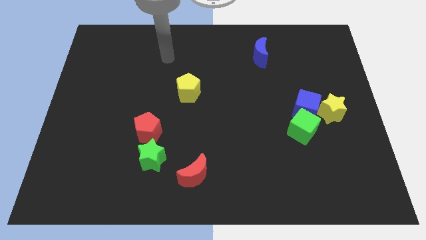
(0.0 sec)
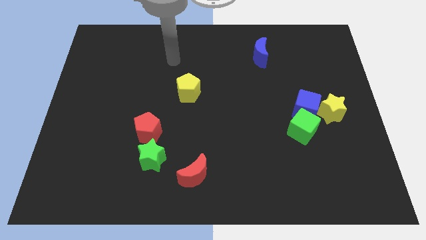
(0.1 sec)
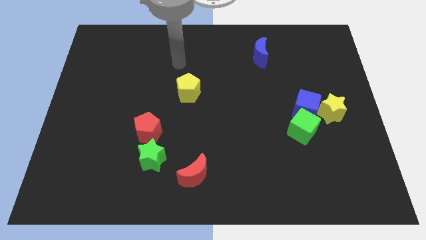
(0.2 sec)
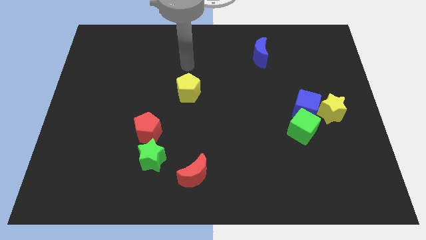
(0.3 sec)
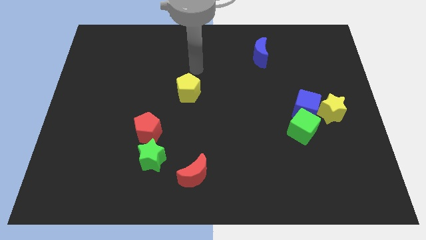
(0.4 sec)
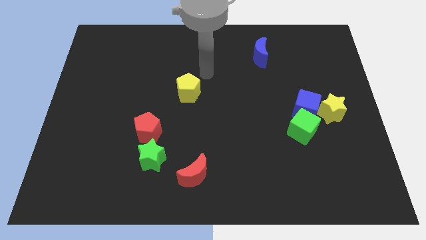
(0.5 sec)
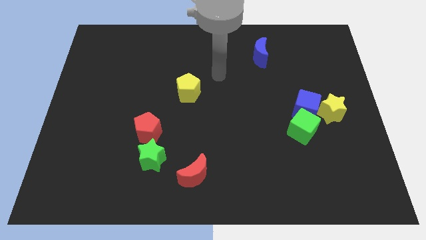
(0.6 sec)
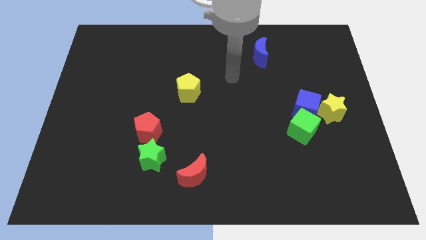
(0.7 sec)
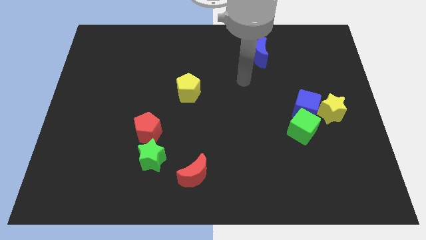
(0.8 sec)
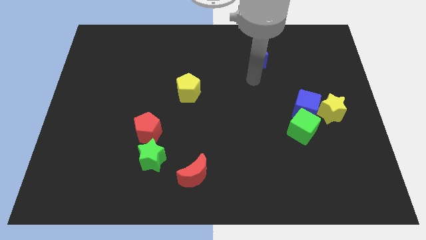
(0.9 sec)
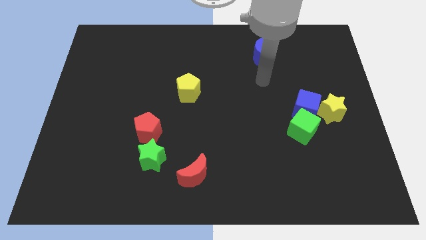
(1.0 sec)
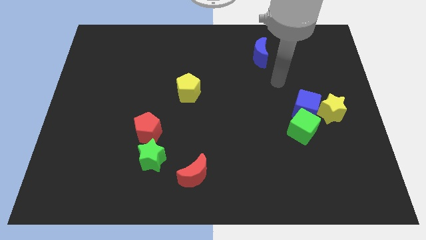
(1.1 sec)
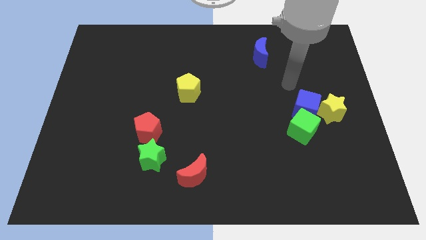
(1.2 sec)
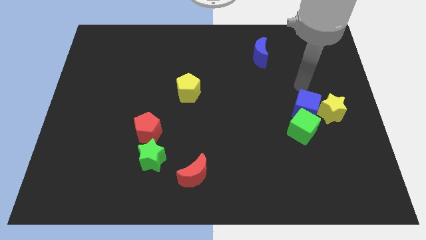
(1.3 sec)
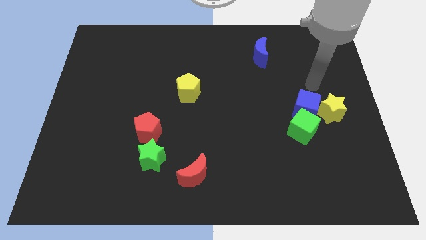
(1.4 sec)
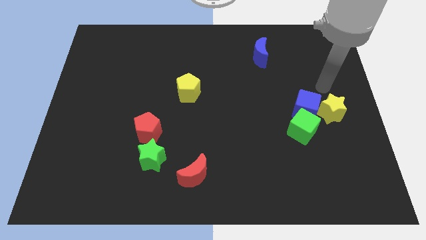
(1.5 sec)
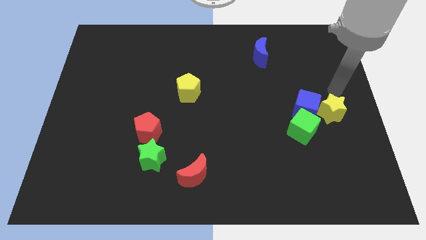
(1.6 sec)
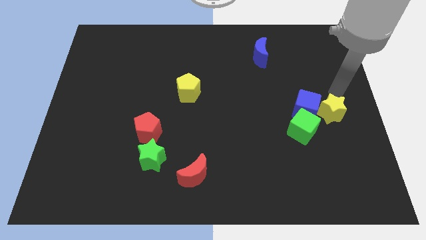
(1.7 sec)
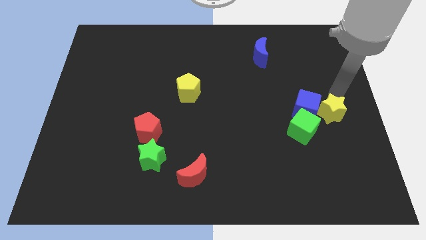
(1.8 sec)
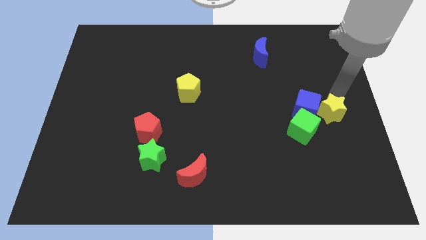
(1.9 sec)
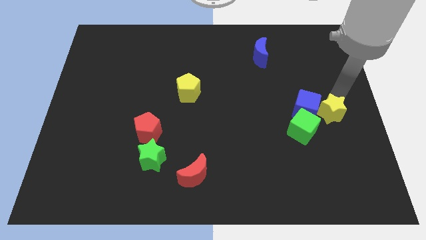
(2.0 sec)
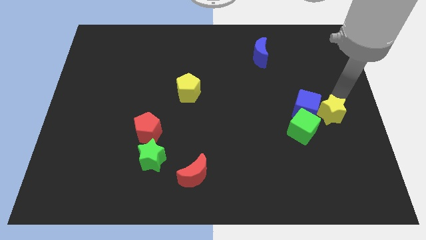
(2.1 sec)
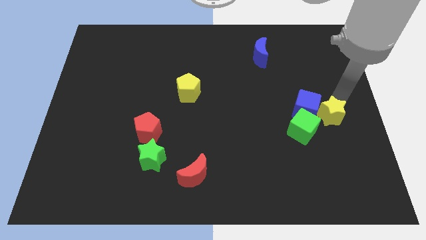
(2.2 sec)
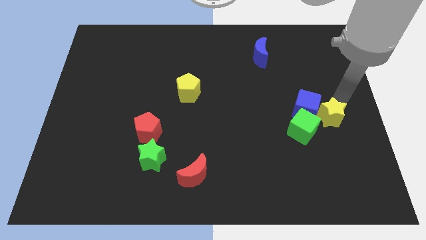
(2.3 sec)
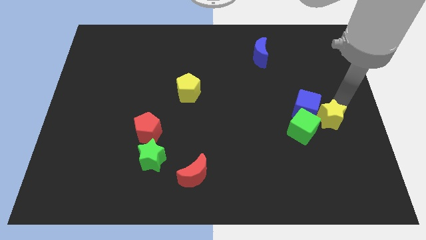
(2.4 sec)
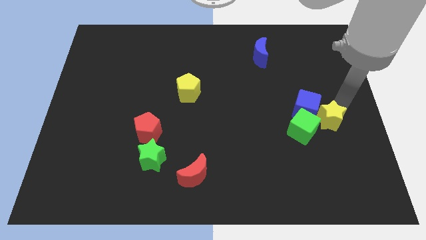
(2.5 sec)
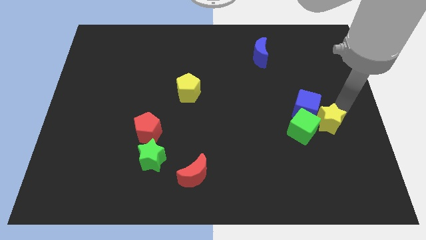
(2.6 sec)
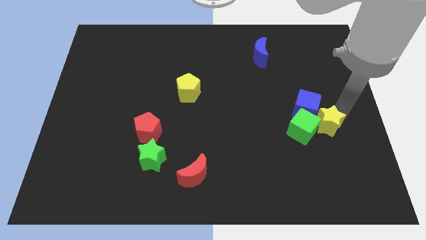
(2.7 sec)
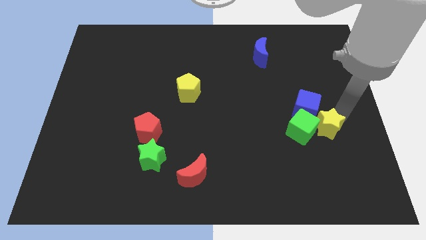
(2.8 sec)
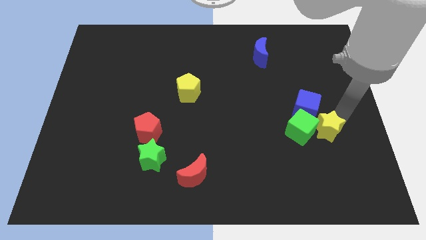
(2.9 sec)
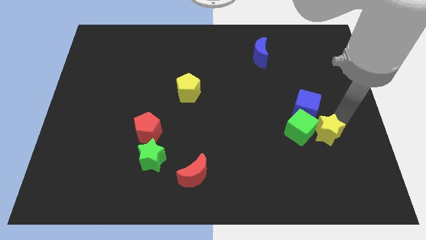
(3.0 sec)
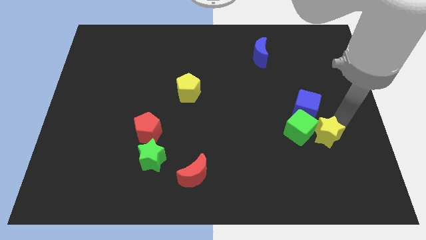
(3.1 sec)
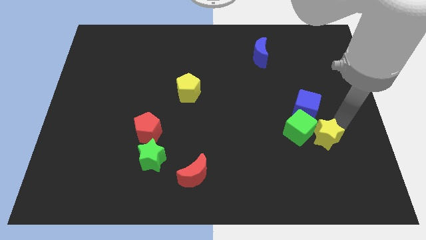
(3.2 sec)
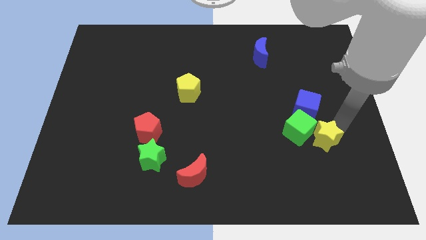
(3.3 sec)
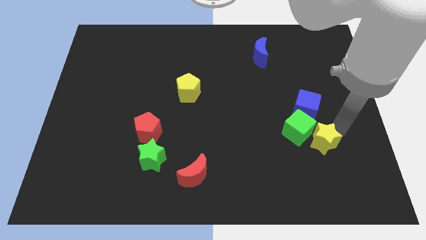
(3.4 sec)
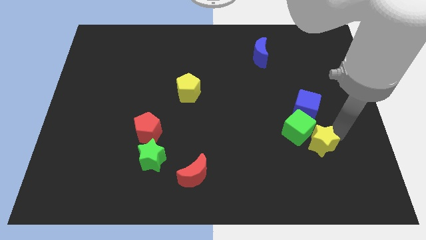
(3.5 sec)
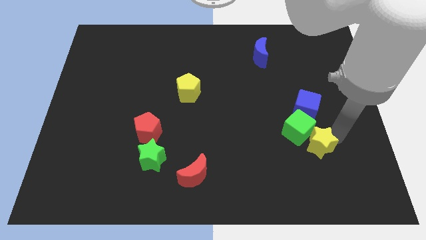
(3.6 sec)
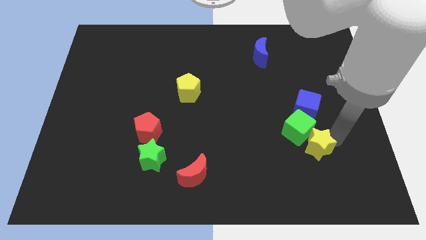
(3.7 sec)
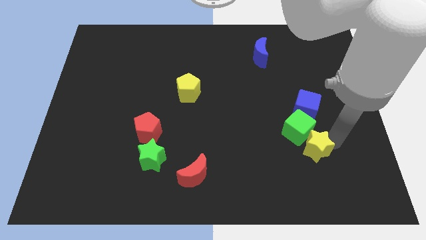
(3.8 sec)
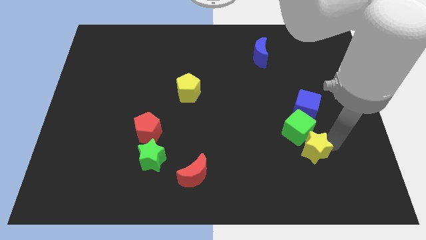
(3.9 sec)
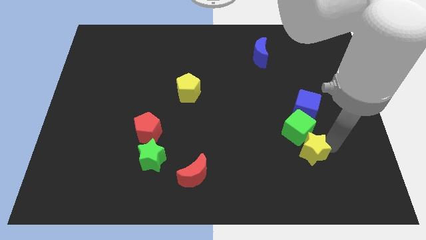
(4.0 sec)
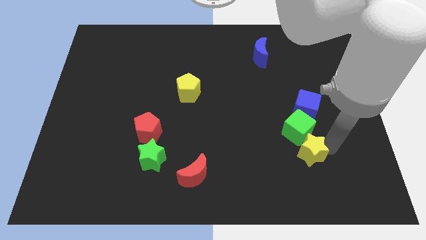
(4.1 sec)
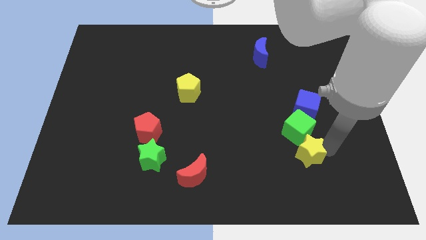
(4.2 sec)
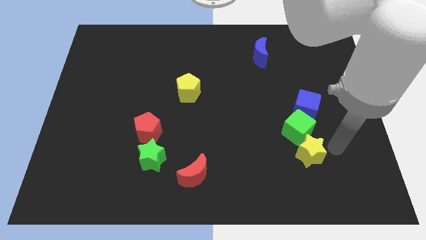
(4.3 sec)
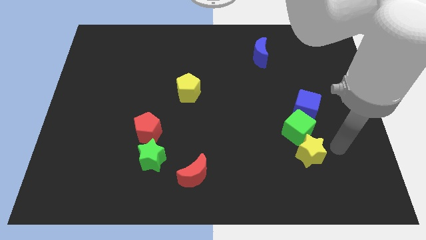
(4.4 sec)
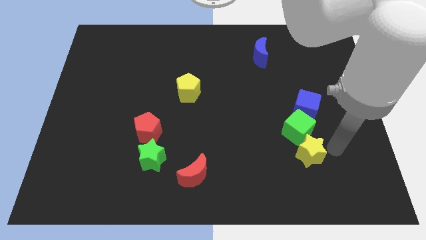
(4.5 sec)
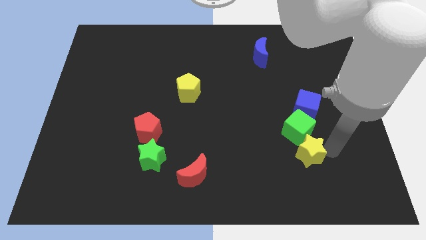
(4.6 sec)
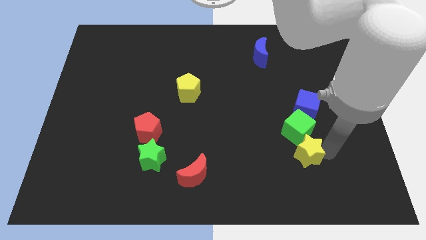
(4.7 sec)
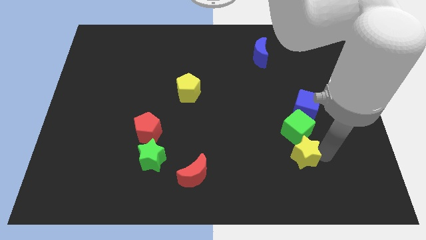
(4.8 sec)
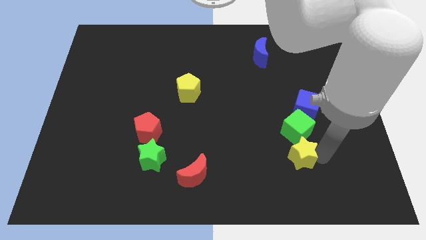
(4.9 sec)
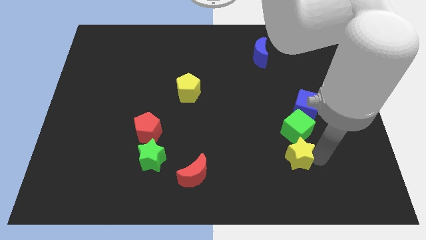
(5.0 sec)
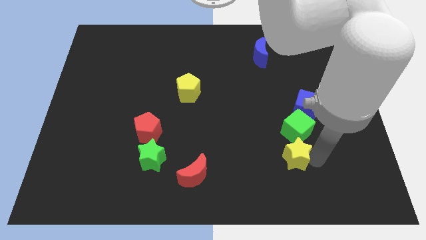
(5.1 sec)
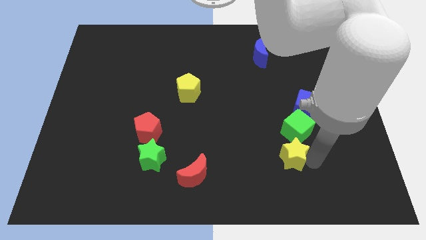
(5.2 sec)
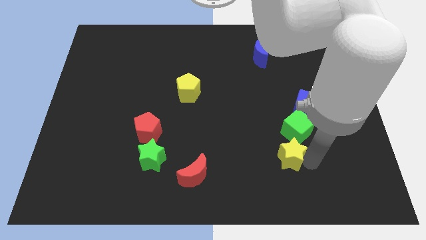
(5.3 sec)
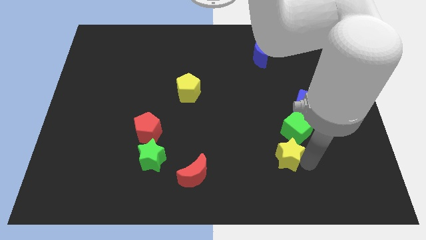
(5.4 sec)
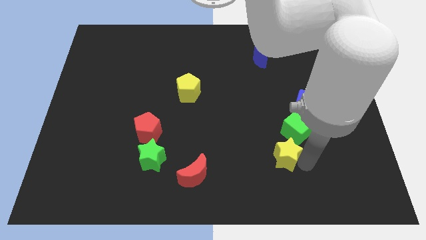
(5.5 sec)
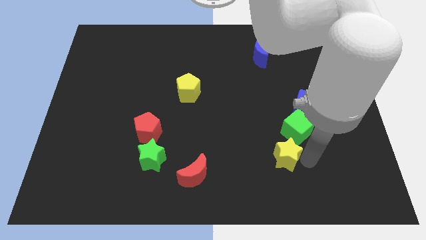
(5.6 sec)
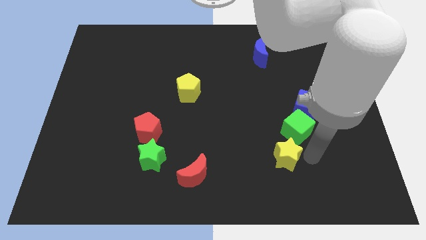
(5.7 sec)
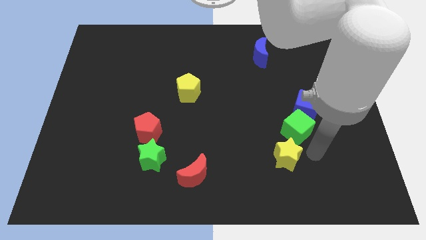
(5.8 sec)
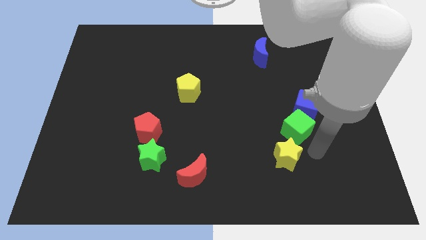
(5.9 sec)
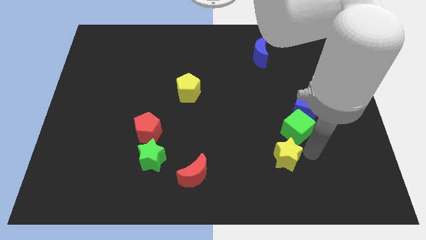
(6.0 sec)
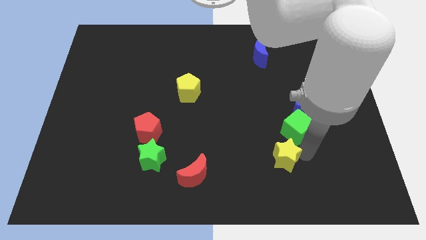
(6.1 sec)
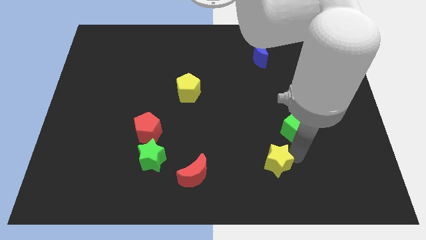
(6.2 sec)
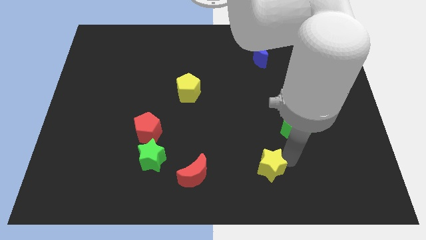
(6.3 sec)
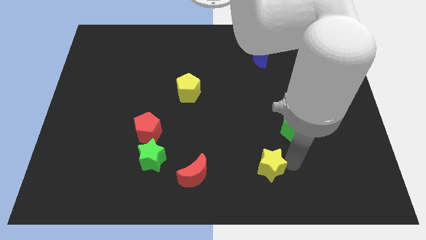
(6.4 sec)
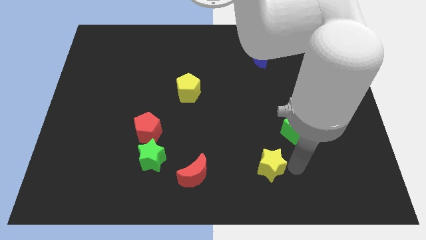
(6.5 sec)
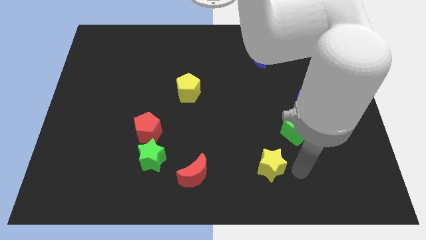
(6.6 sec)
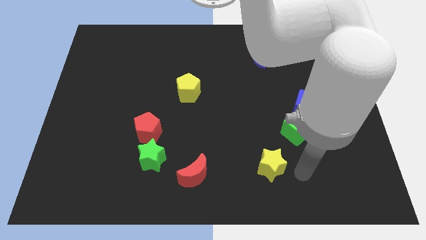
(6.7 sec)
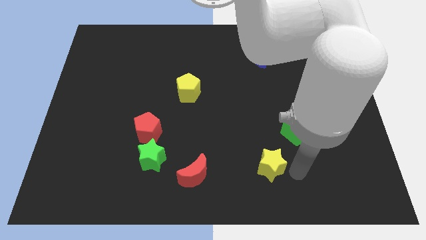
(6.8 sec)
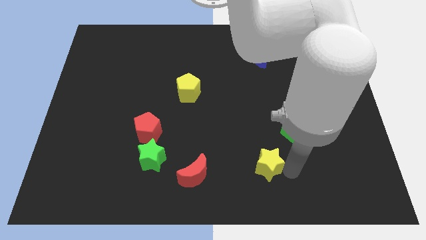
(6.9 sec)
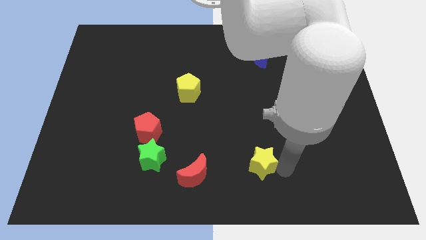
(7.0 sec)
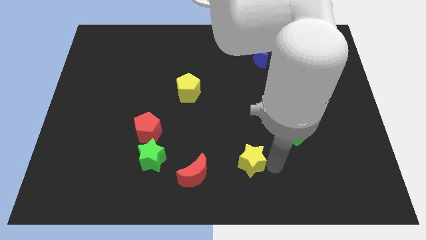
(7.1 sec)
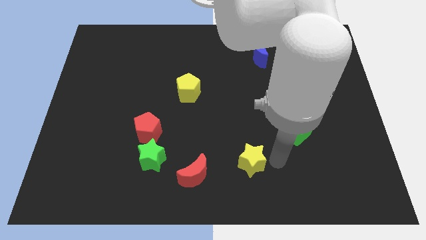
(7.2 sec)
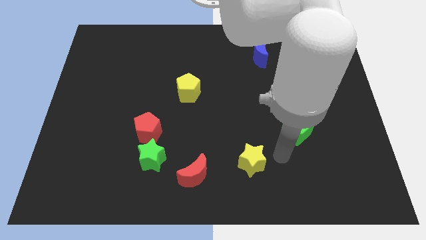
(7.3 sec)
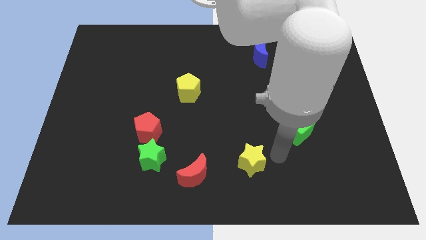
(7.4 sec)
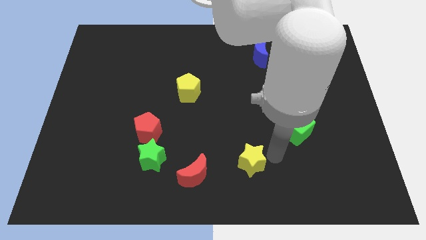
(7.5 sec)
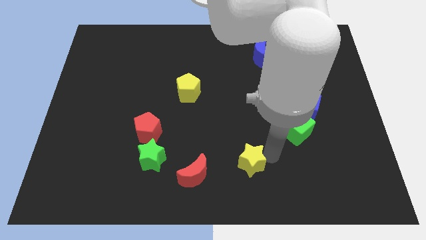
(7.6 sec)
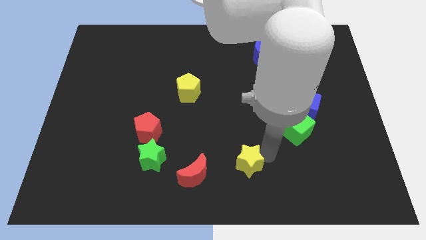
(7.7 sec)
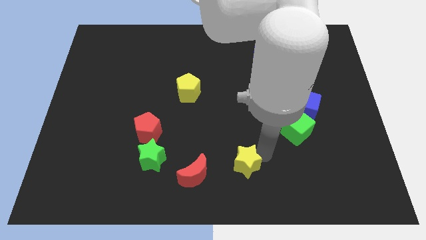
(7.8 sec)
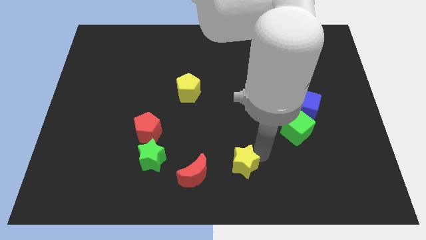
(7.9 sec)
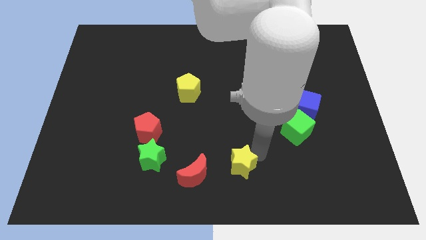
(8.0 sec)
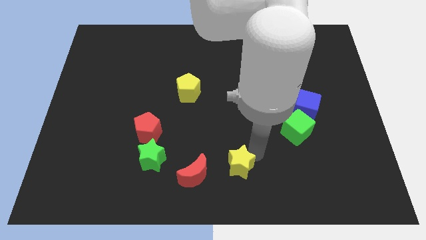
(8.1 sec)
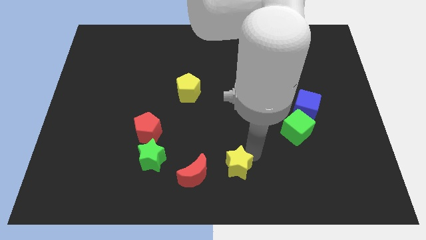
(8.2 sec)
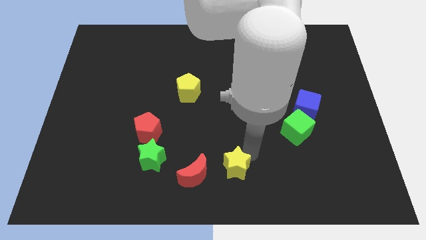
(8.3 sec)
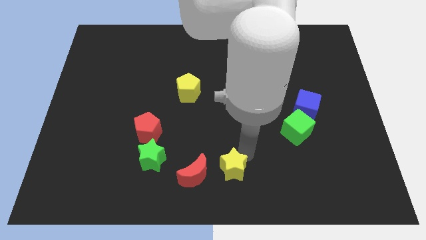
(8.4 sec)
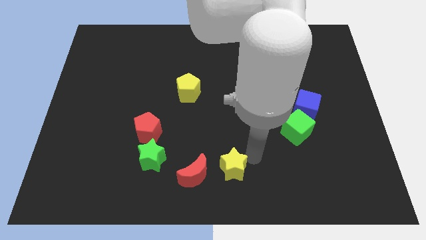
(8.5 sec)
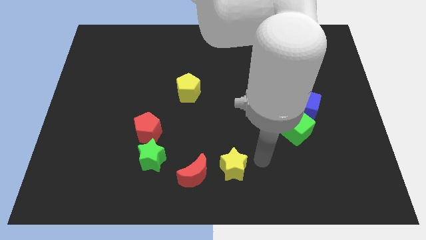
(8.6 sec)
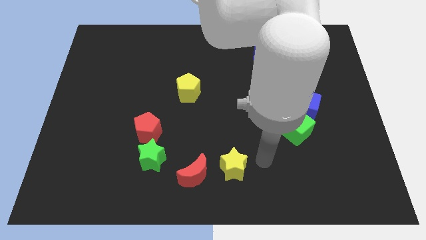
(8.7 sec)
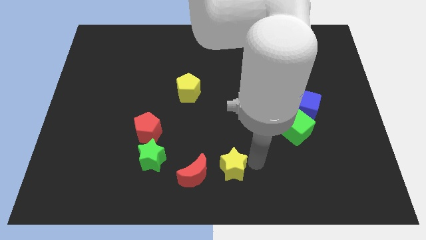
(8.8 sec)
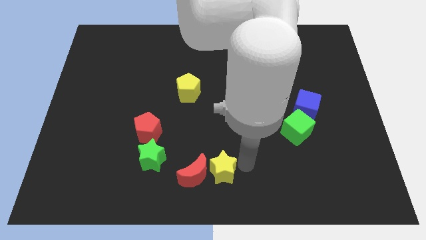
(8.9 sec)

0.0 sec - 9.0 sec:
move the yellow star towards the red moon
